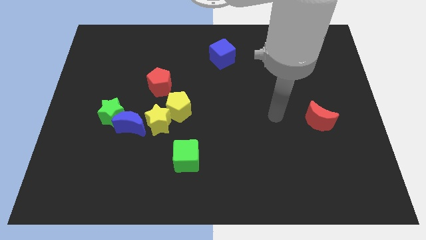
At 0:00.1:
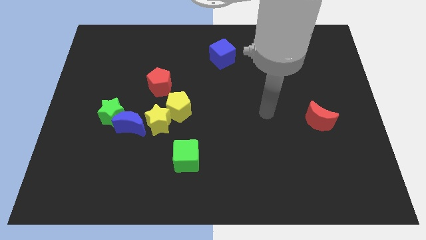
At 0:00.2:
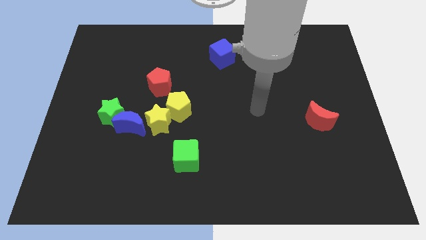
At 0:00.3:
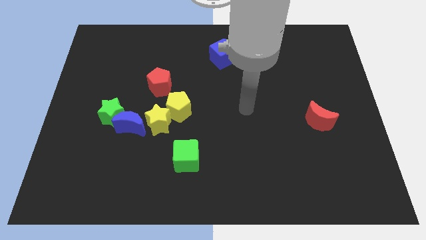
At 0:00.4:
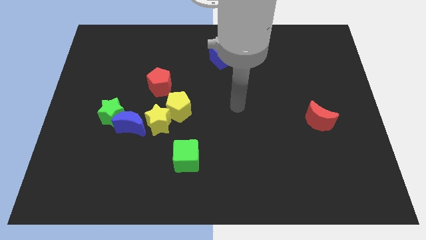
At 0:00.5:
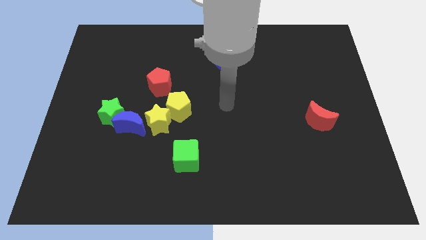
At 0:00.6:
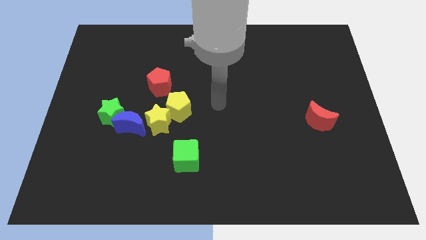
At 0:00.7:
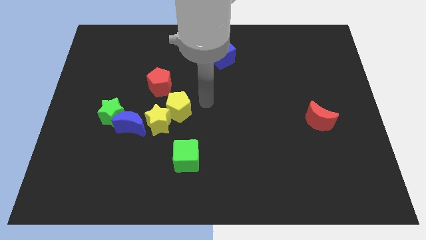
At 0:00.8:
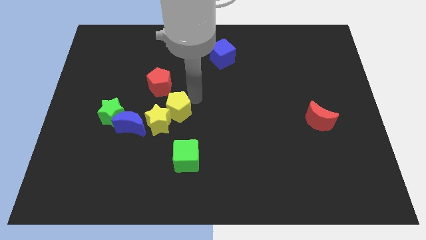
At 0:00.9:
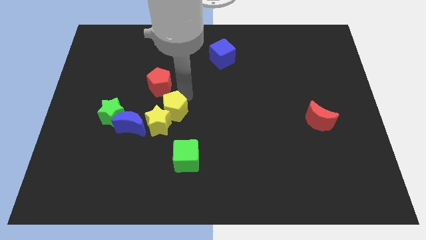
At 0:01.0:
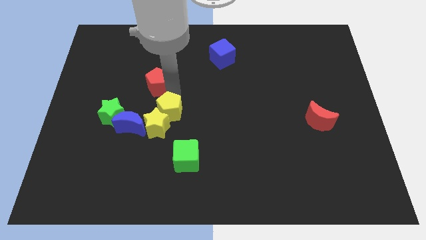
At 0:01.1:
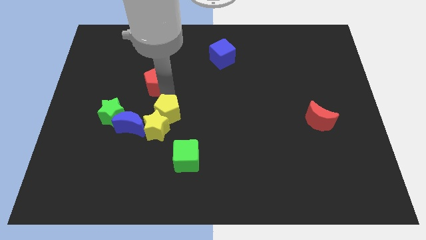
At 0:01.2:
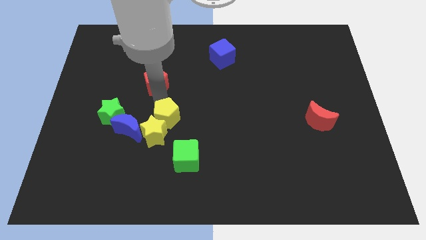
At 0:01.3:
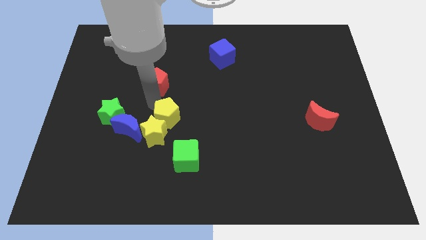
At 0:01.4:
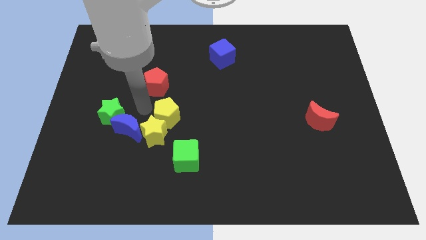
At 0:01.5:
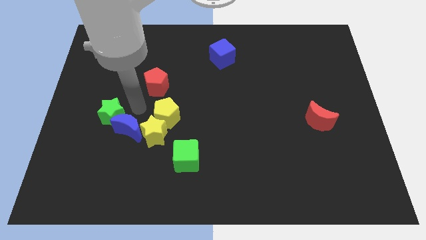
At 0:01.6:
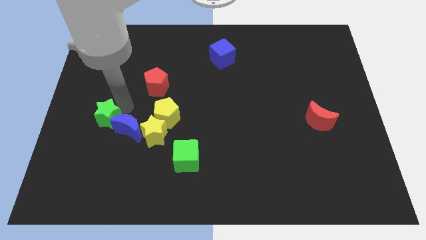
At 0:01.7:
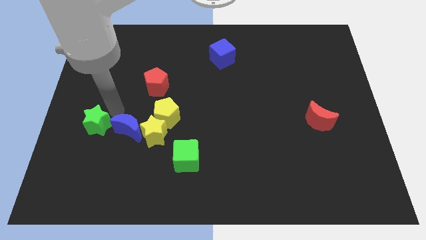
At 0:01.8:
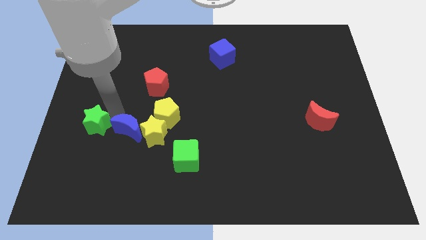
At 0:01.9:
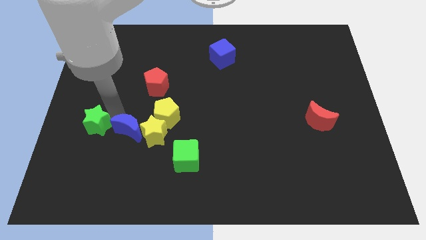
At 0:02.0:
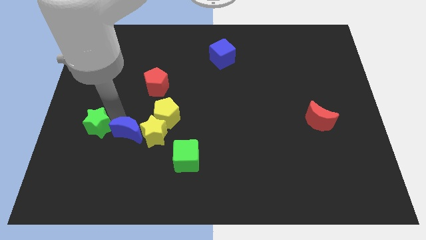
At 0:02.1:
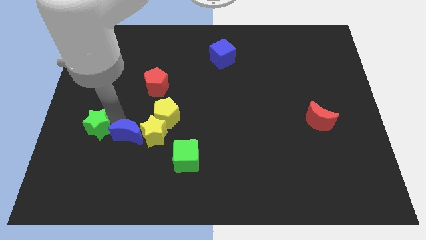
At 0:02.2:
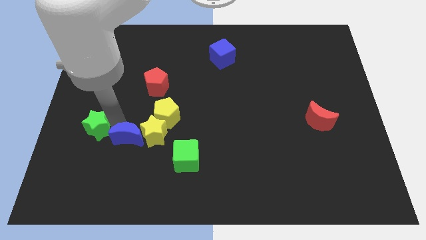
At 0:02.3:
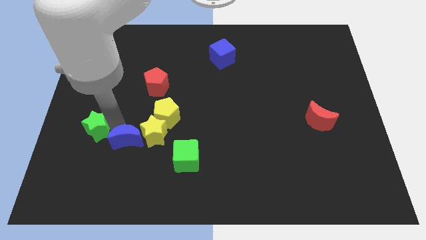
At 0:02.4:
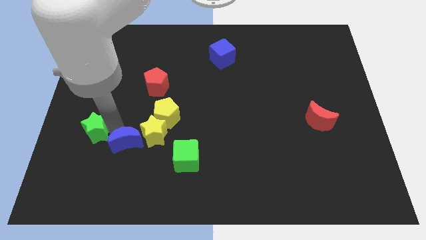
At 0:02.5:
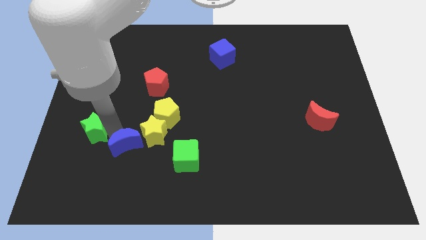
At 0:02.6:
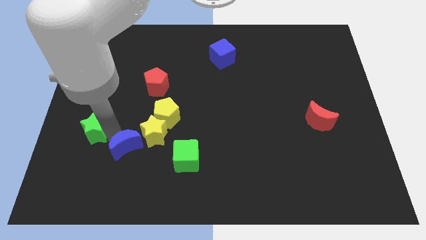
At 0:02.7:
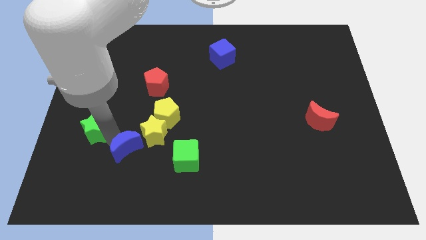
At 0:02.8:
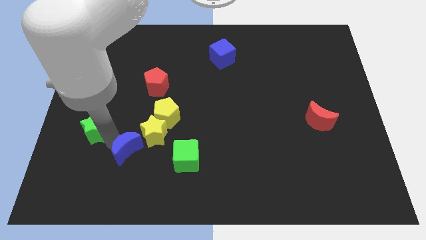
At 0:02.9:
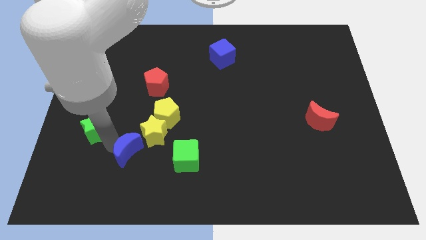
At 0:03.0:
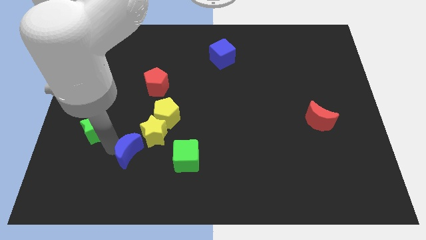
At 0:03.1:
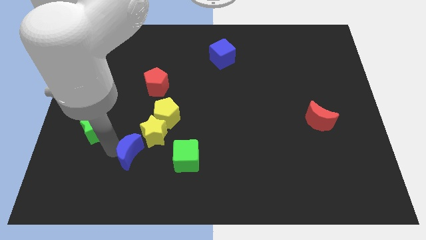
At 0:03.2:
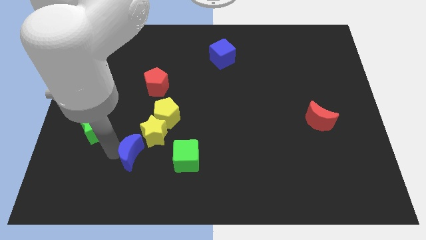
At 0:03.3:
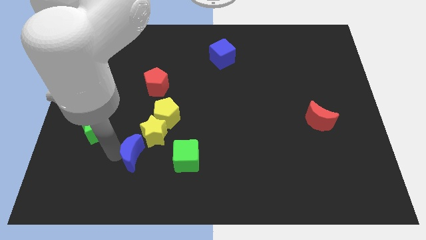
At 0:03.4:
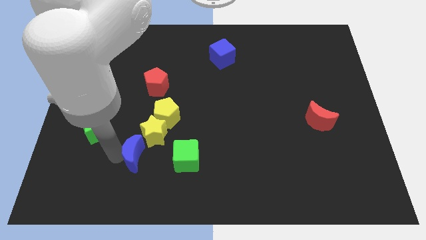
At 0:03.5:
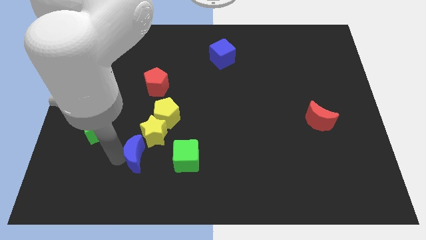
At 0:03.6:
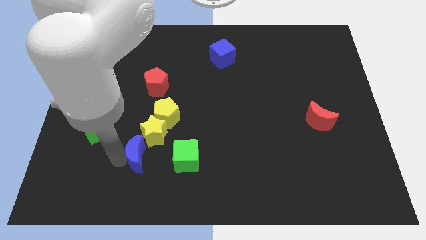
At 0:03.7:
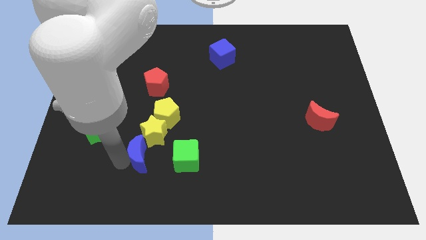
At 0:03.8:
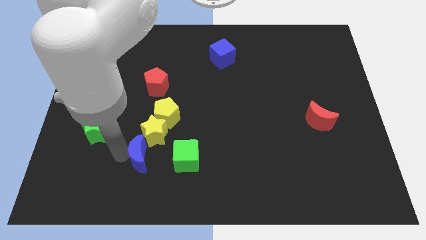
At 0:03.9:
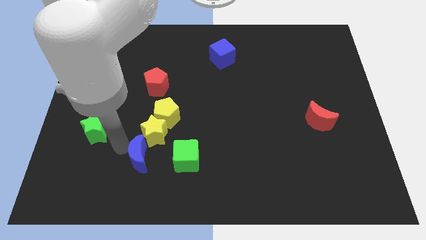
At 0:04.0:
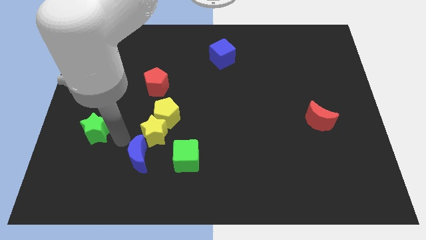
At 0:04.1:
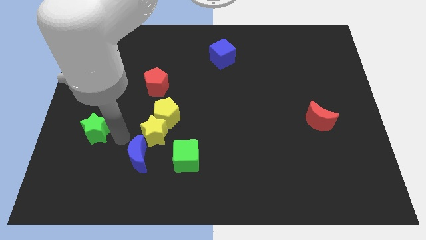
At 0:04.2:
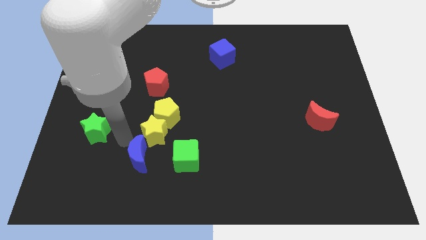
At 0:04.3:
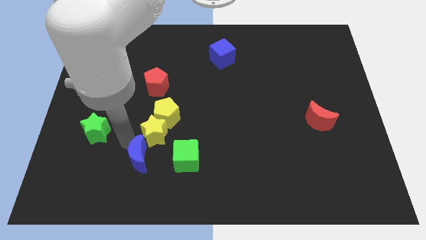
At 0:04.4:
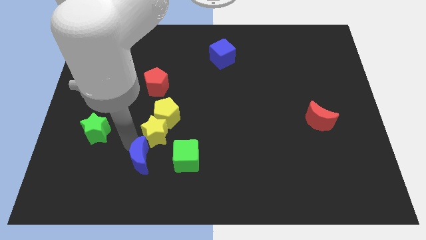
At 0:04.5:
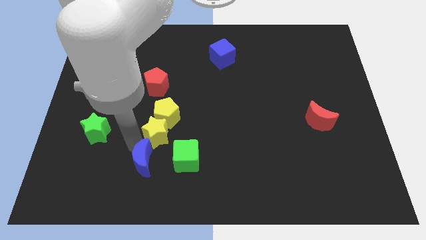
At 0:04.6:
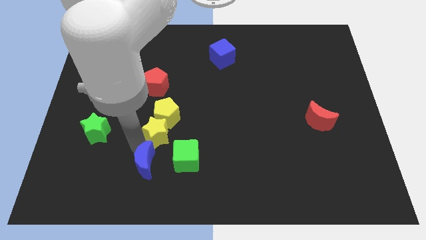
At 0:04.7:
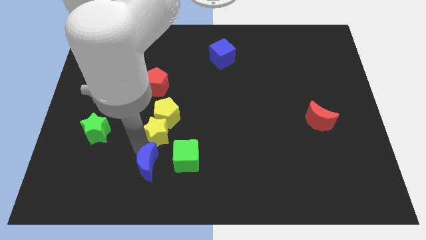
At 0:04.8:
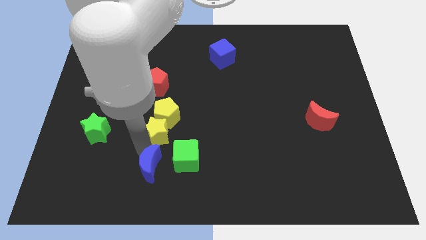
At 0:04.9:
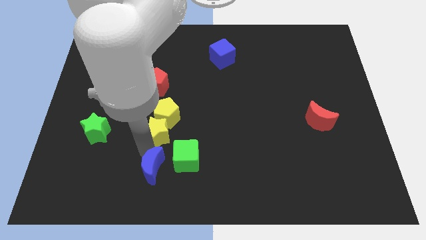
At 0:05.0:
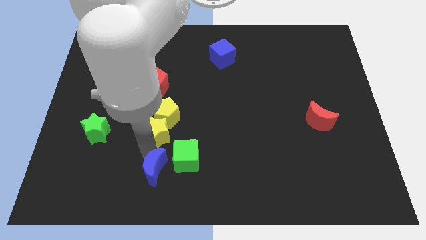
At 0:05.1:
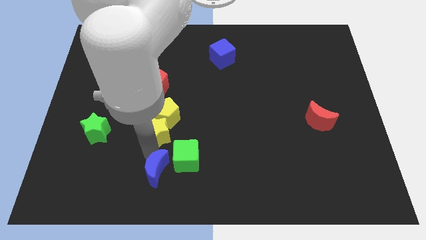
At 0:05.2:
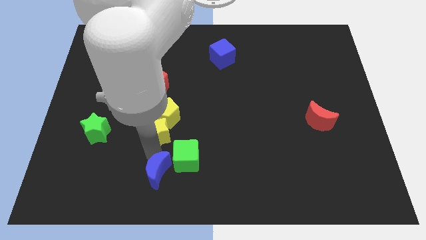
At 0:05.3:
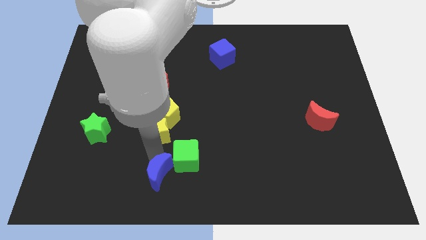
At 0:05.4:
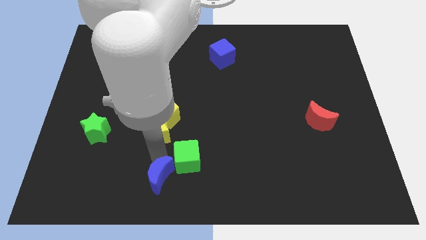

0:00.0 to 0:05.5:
put the blue moon to the bottom

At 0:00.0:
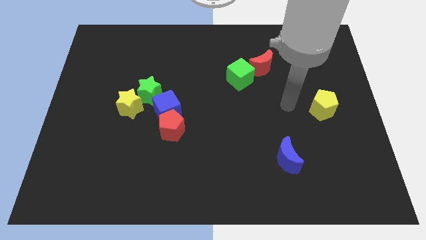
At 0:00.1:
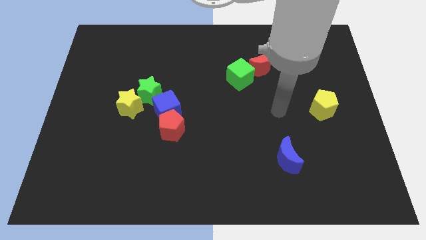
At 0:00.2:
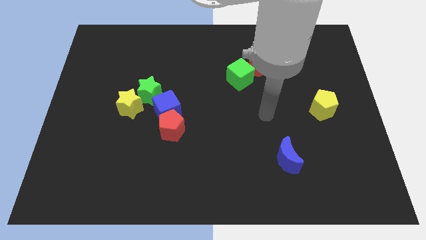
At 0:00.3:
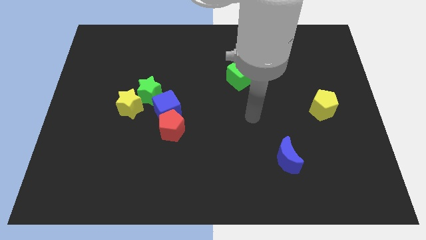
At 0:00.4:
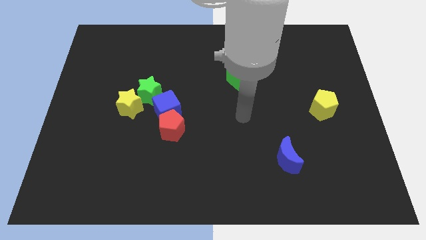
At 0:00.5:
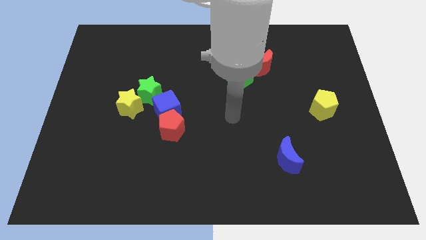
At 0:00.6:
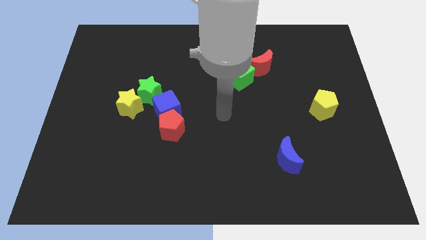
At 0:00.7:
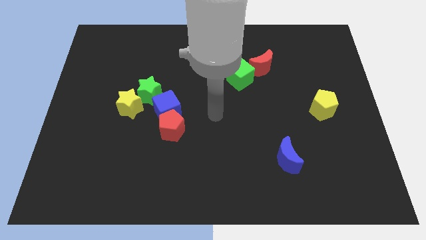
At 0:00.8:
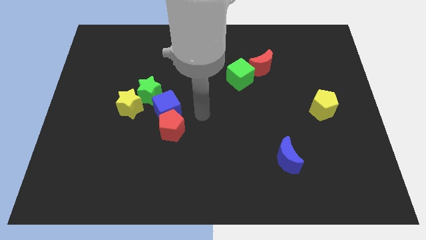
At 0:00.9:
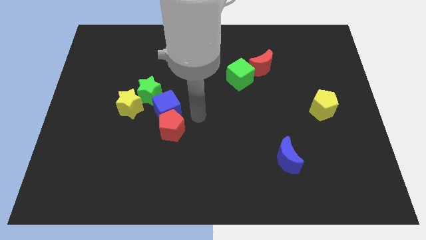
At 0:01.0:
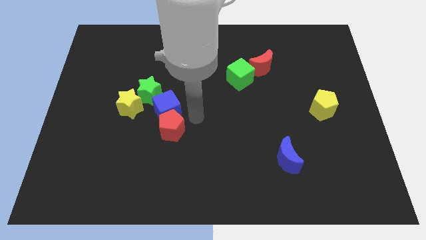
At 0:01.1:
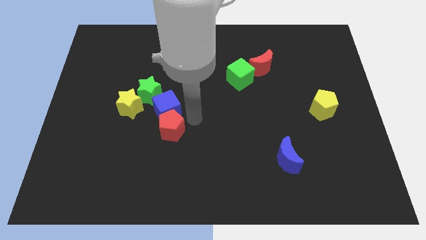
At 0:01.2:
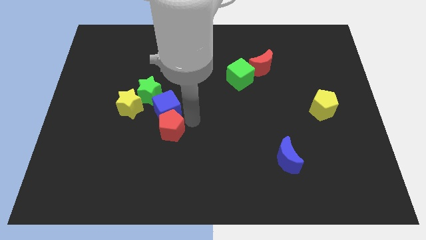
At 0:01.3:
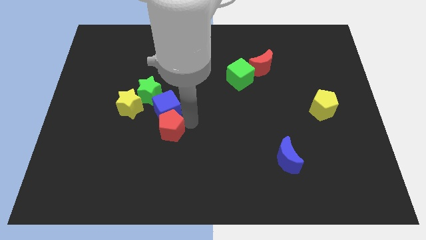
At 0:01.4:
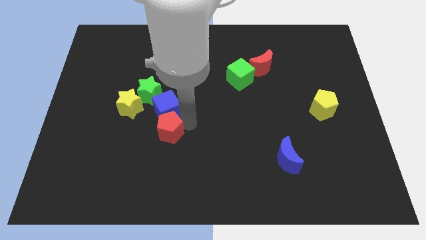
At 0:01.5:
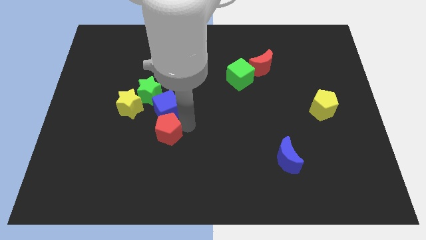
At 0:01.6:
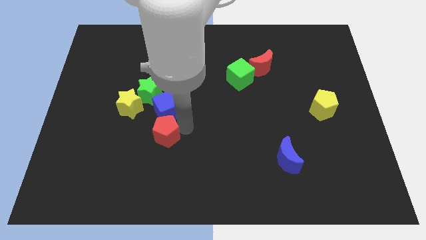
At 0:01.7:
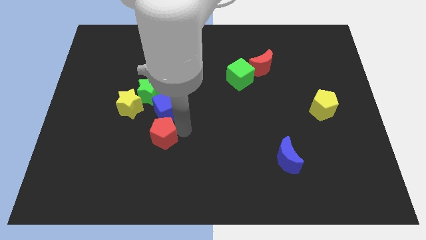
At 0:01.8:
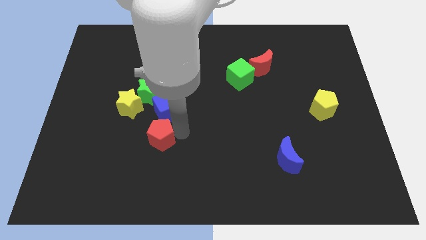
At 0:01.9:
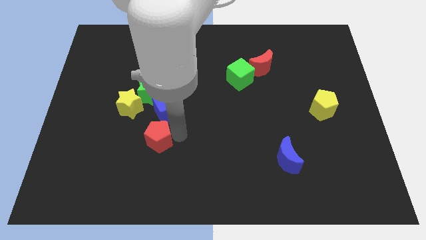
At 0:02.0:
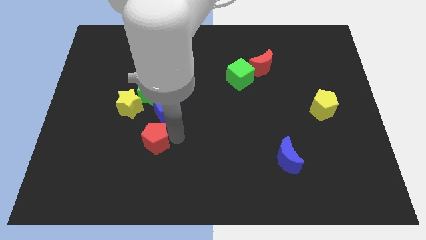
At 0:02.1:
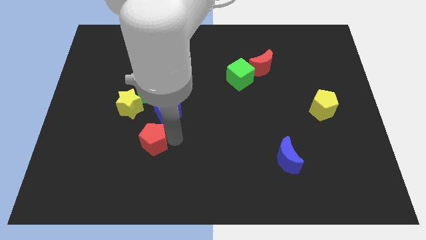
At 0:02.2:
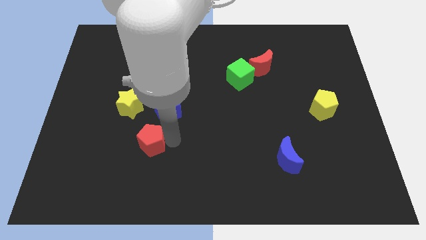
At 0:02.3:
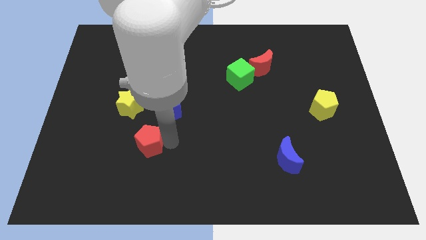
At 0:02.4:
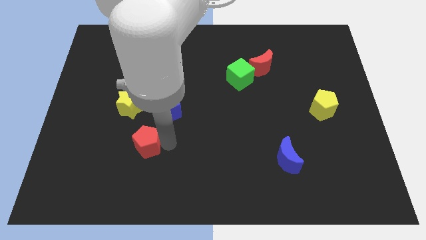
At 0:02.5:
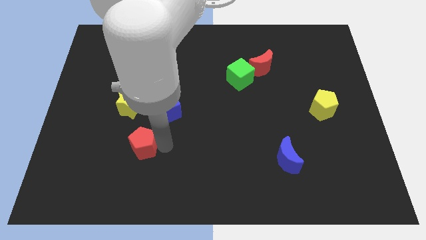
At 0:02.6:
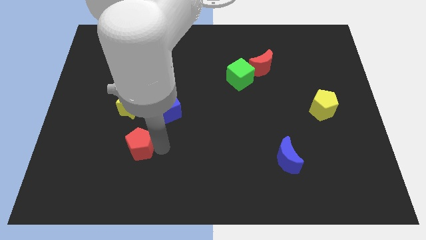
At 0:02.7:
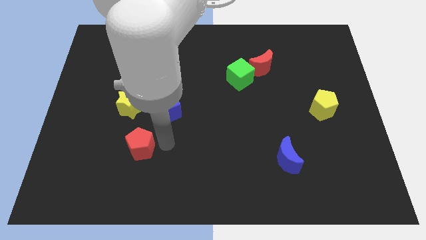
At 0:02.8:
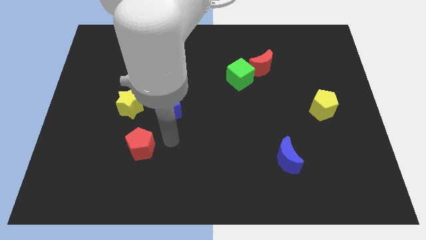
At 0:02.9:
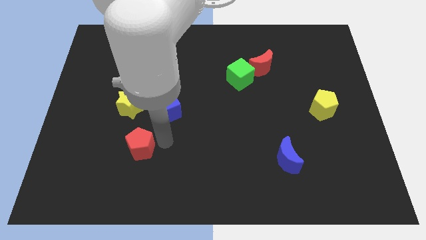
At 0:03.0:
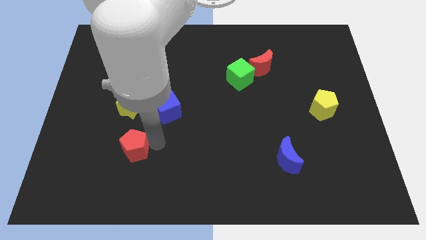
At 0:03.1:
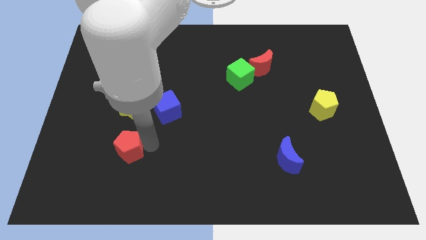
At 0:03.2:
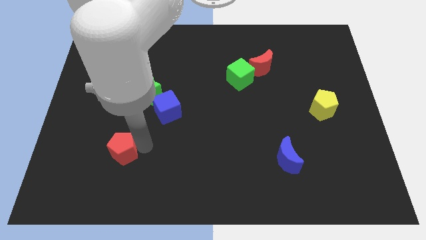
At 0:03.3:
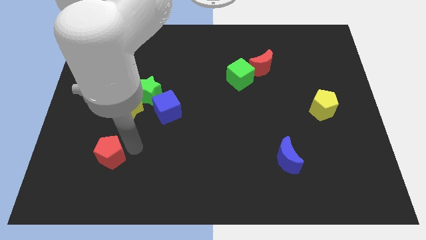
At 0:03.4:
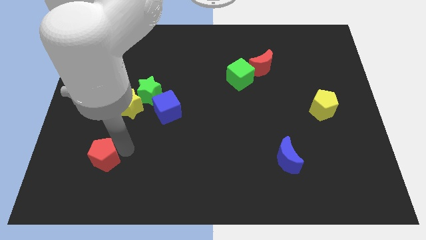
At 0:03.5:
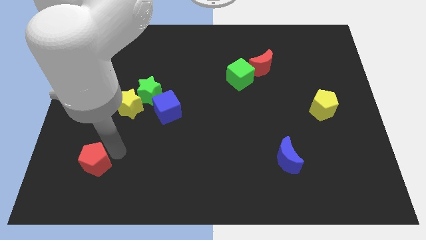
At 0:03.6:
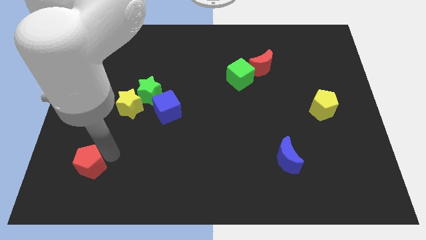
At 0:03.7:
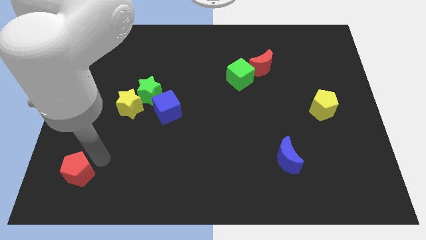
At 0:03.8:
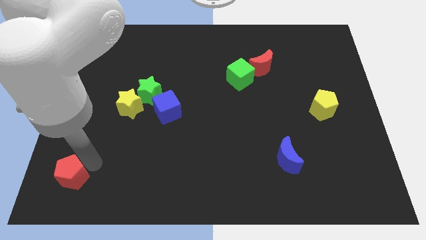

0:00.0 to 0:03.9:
push the red pentagon to the bottom left corner
